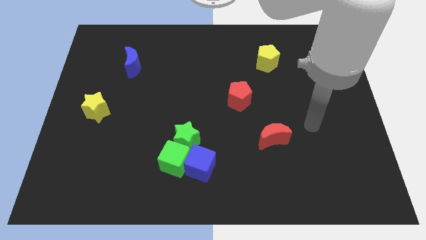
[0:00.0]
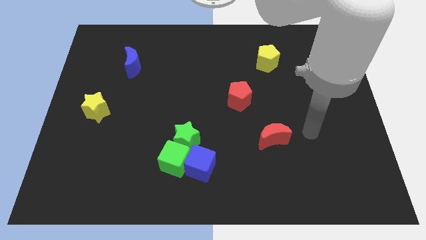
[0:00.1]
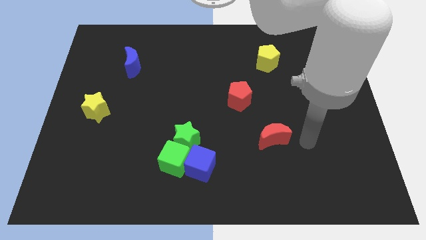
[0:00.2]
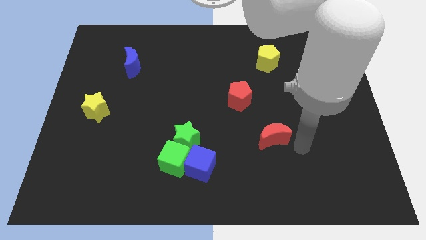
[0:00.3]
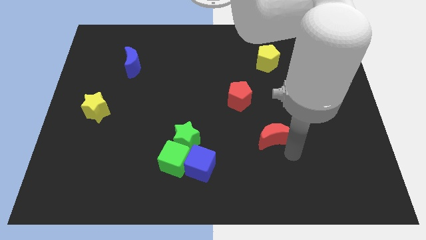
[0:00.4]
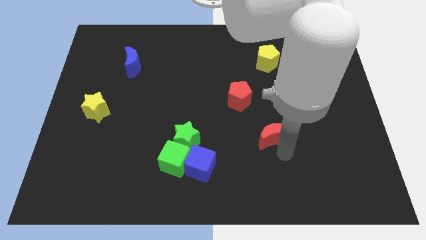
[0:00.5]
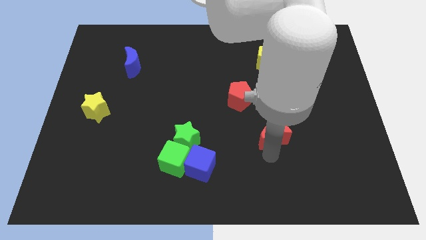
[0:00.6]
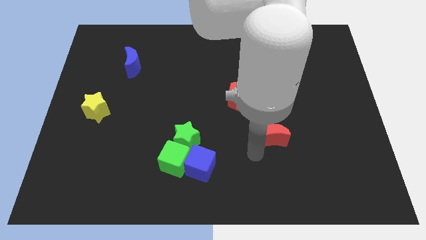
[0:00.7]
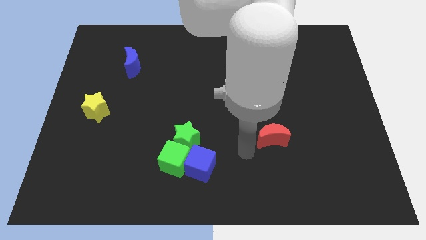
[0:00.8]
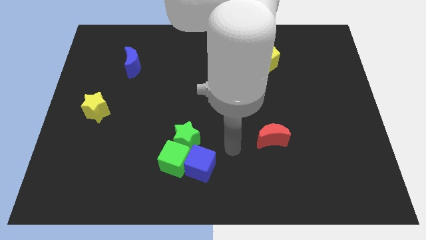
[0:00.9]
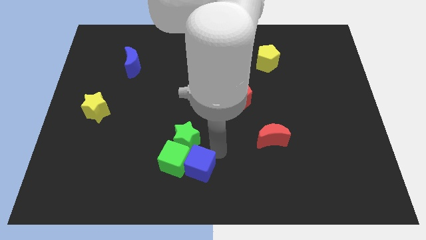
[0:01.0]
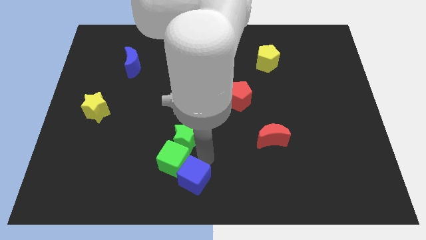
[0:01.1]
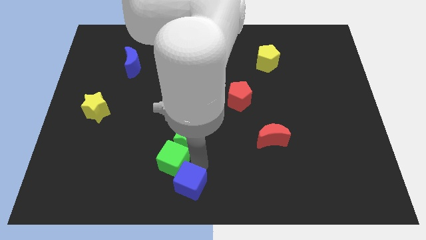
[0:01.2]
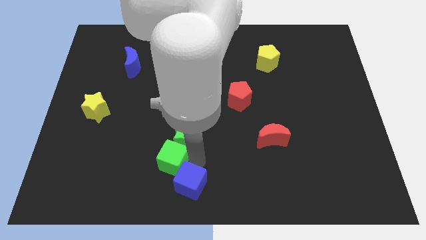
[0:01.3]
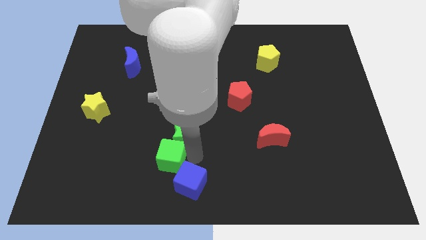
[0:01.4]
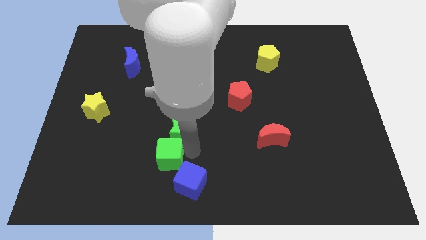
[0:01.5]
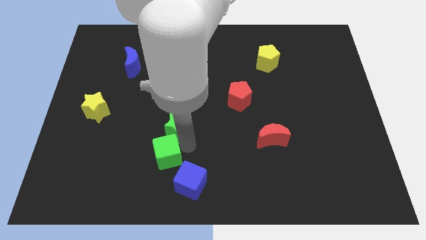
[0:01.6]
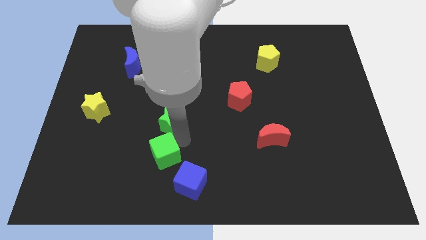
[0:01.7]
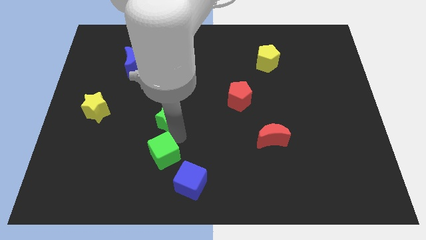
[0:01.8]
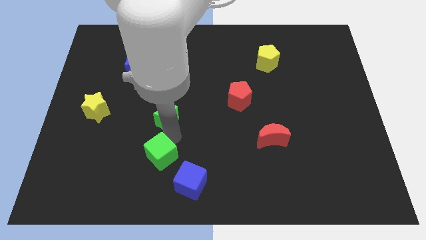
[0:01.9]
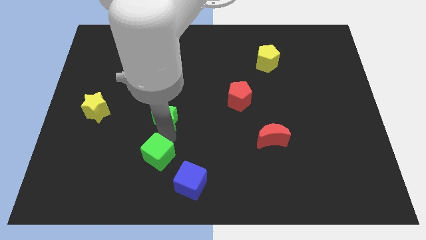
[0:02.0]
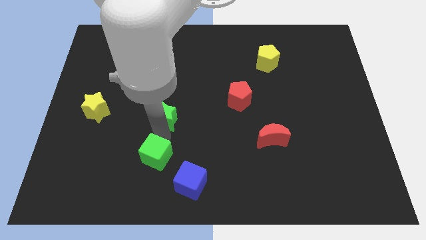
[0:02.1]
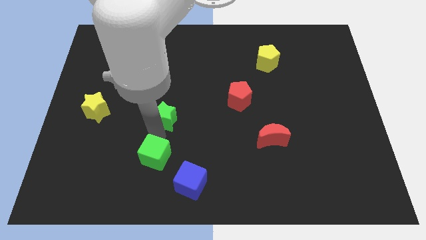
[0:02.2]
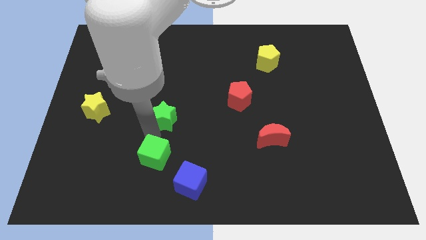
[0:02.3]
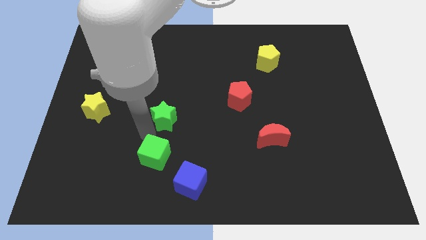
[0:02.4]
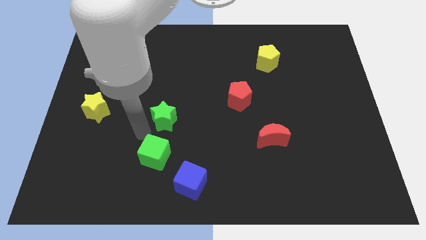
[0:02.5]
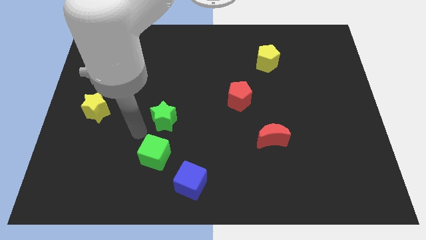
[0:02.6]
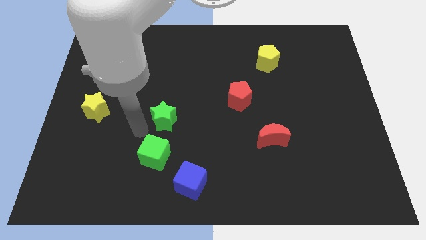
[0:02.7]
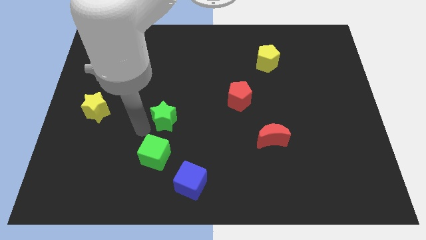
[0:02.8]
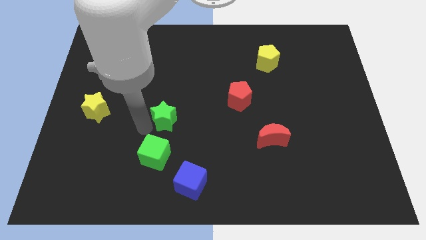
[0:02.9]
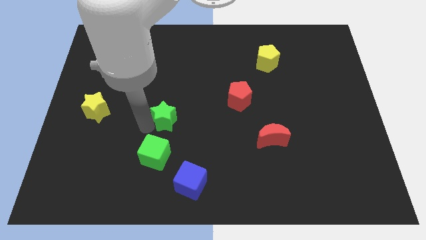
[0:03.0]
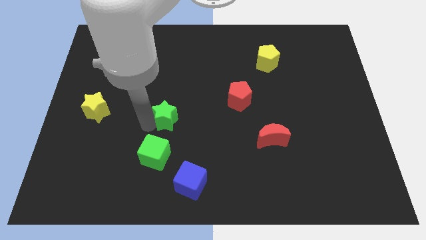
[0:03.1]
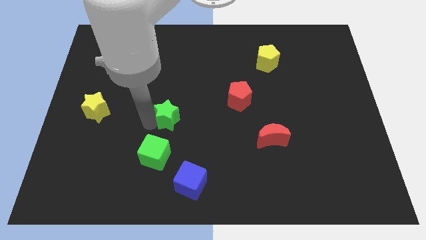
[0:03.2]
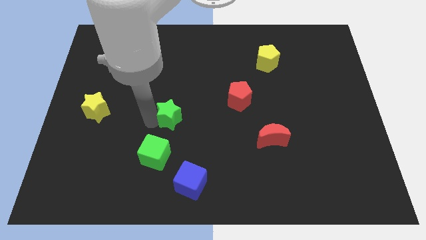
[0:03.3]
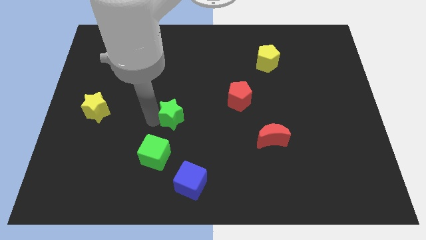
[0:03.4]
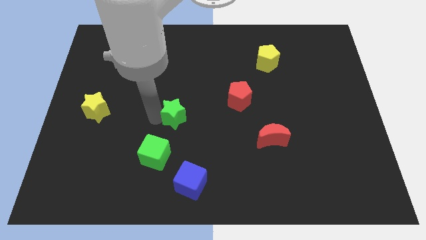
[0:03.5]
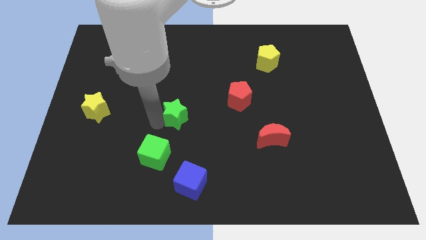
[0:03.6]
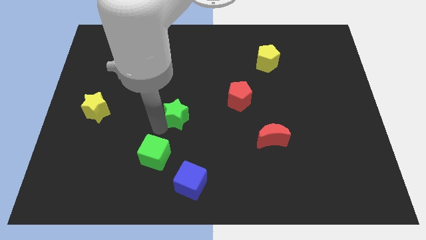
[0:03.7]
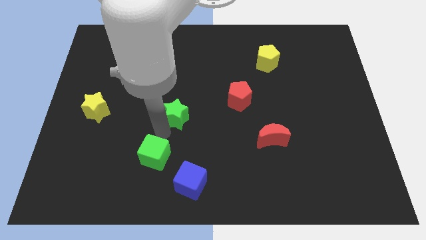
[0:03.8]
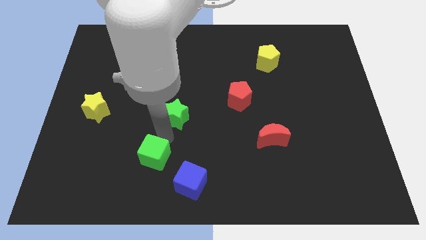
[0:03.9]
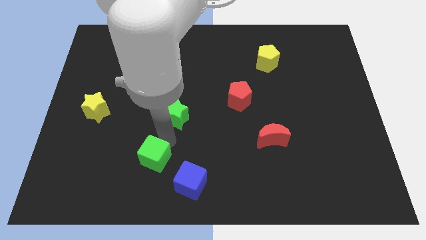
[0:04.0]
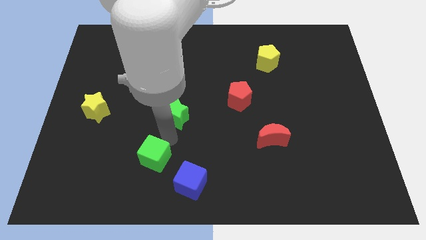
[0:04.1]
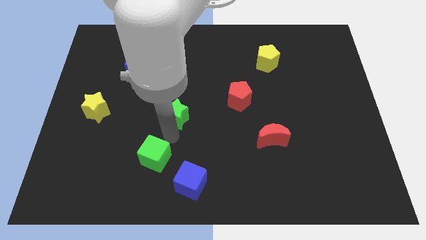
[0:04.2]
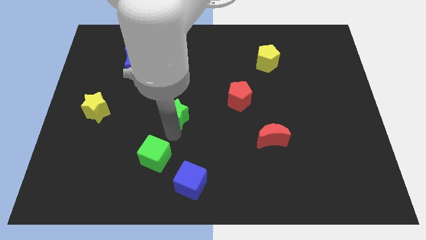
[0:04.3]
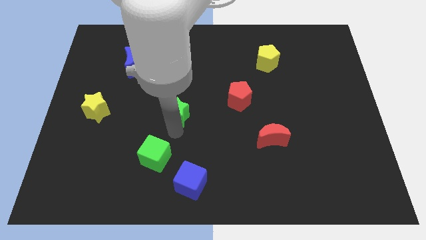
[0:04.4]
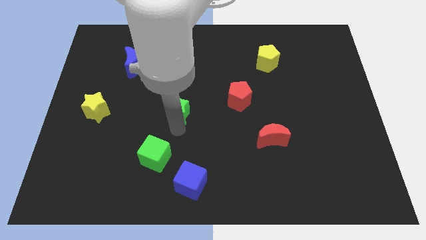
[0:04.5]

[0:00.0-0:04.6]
slightly move the green star up

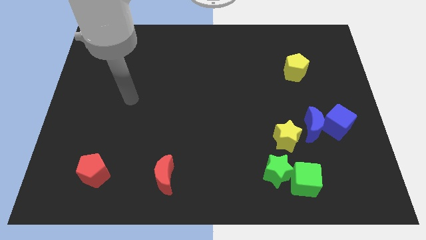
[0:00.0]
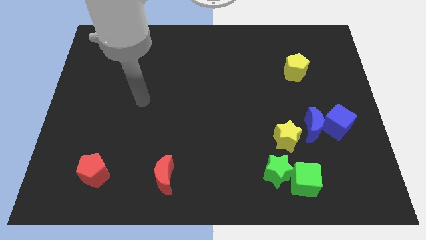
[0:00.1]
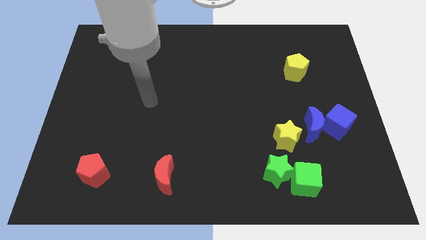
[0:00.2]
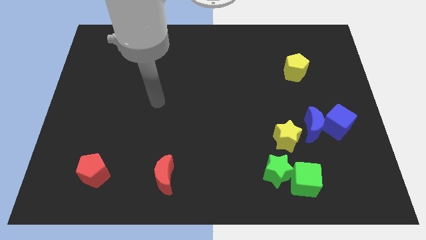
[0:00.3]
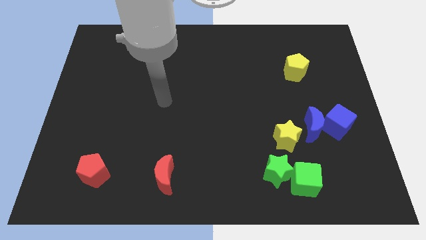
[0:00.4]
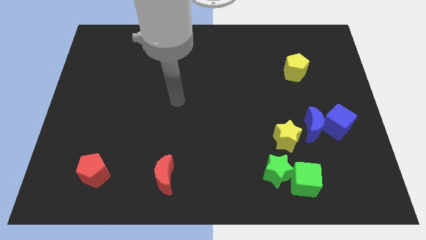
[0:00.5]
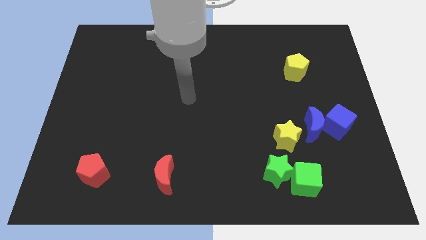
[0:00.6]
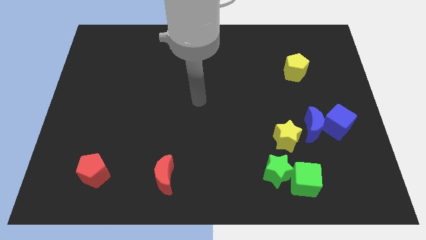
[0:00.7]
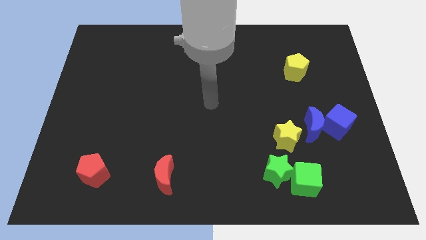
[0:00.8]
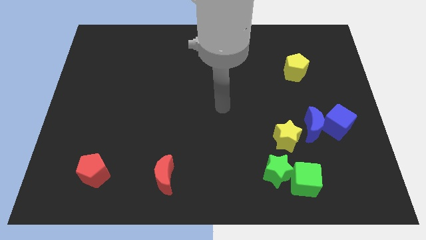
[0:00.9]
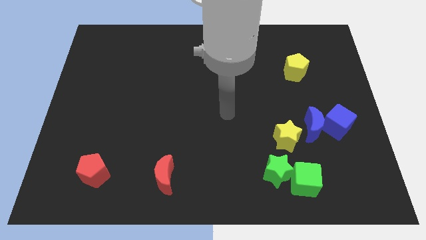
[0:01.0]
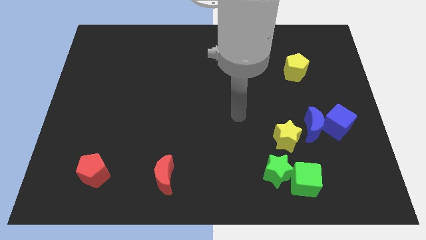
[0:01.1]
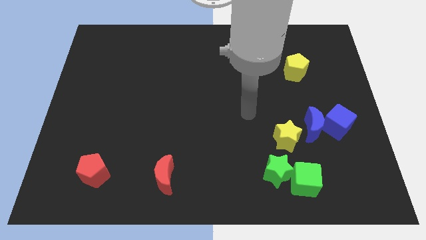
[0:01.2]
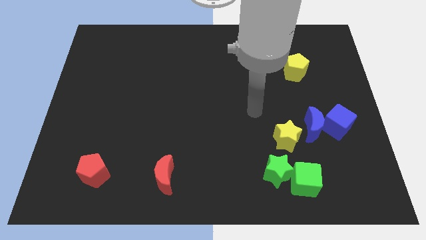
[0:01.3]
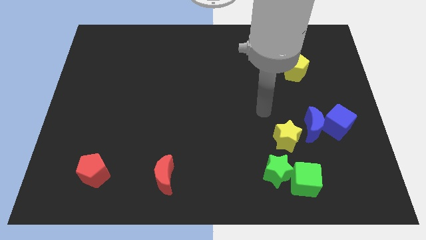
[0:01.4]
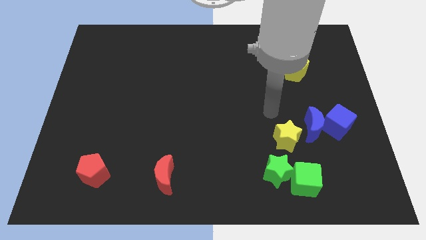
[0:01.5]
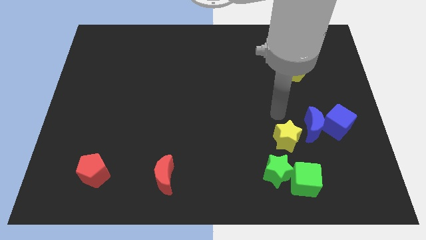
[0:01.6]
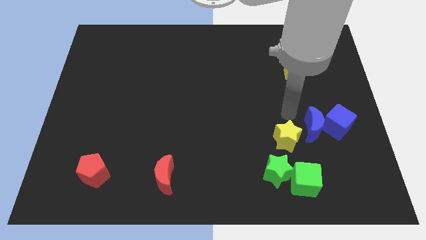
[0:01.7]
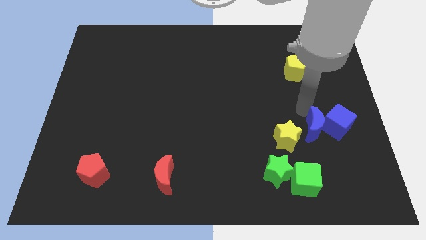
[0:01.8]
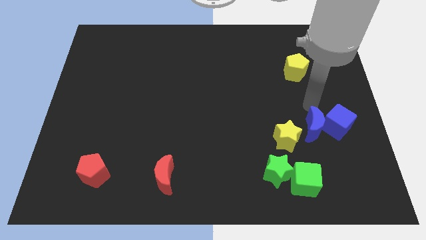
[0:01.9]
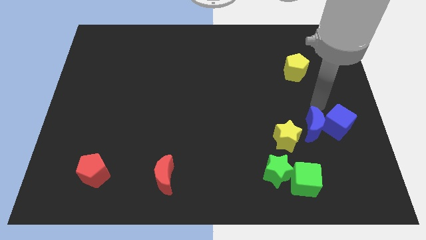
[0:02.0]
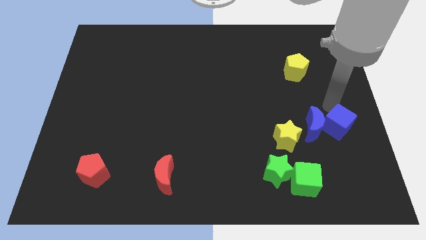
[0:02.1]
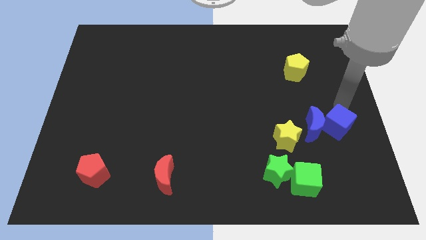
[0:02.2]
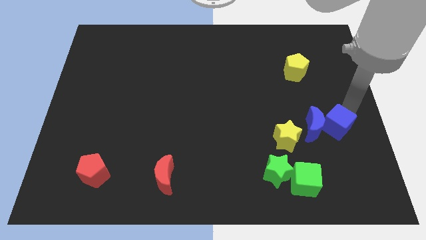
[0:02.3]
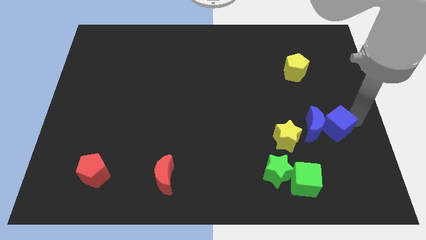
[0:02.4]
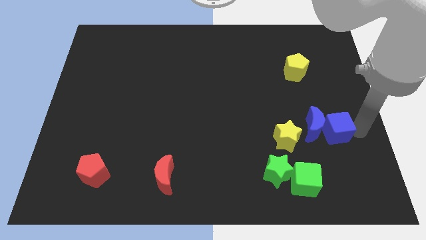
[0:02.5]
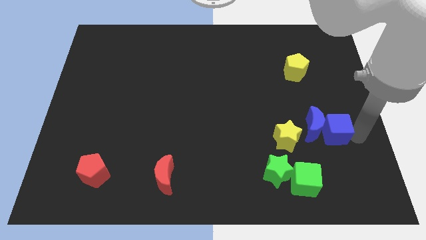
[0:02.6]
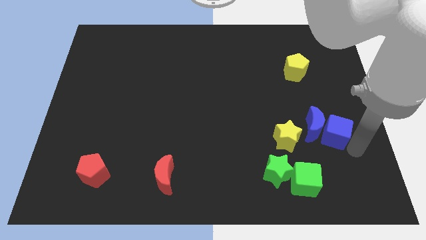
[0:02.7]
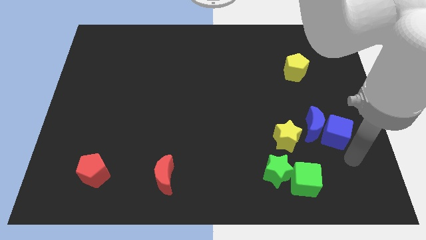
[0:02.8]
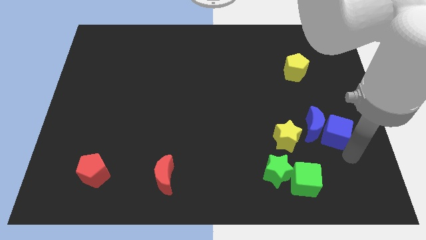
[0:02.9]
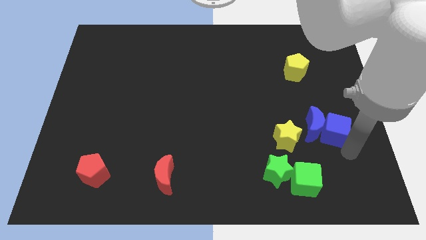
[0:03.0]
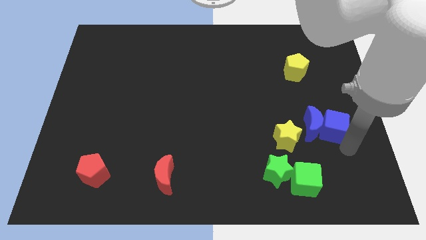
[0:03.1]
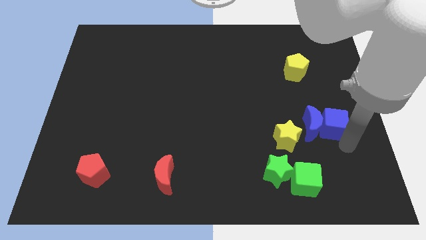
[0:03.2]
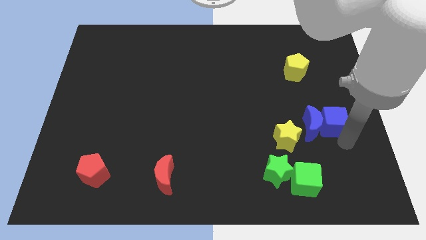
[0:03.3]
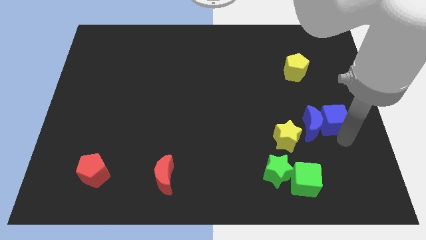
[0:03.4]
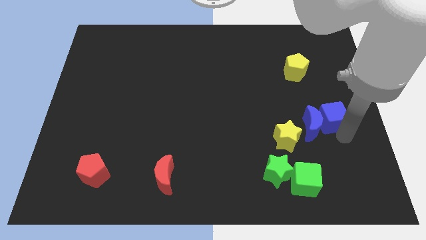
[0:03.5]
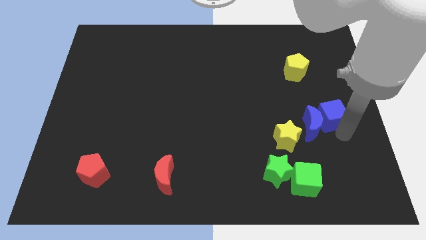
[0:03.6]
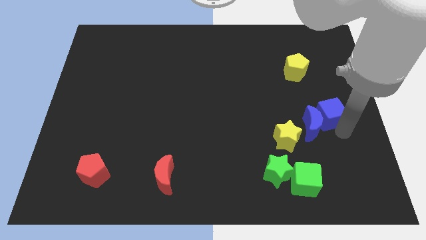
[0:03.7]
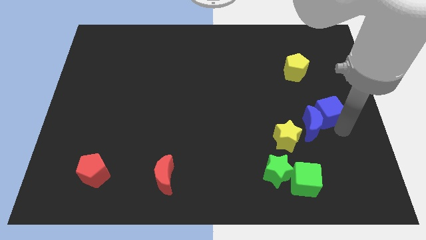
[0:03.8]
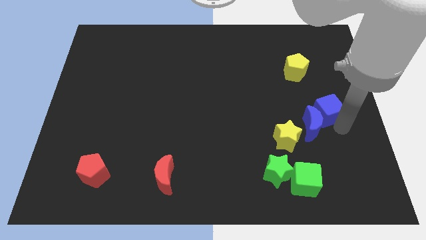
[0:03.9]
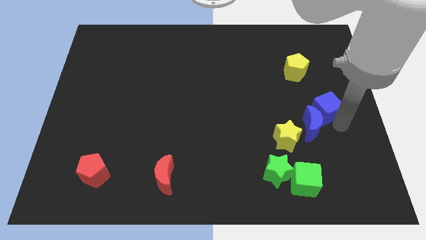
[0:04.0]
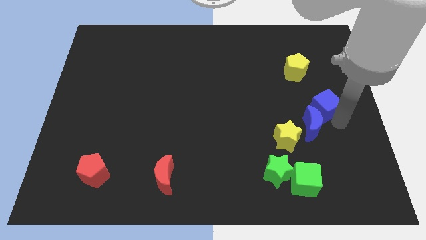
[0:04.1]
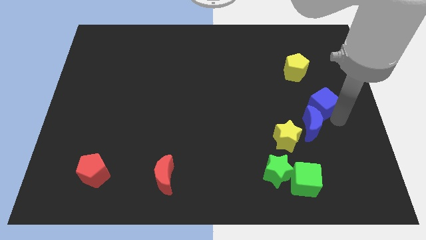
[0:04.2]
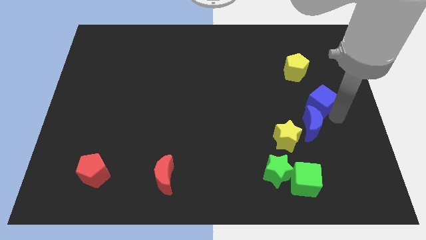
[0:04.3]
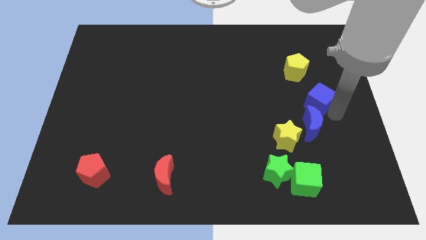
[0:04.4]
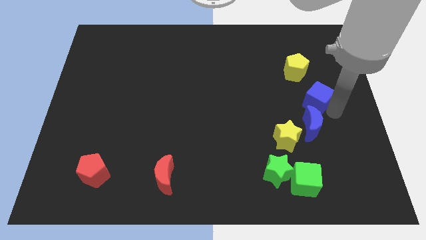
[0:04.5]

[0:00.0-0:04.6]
slide the blue cube upwards and then to the left somewhat
